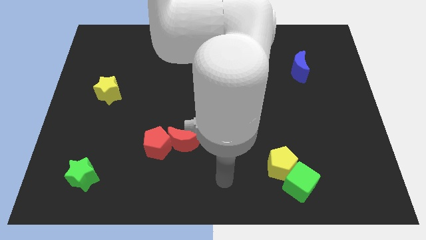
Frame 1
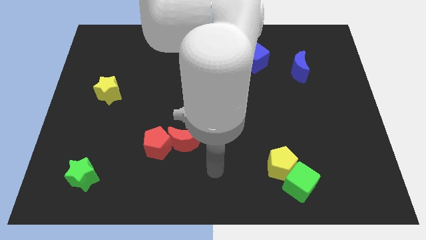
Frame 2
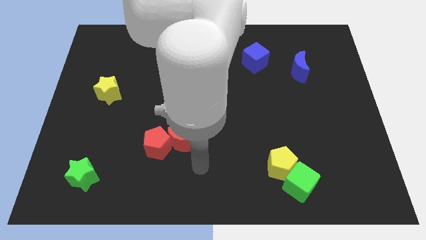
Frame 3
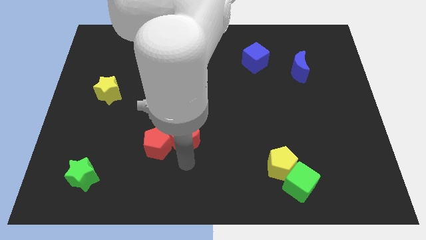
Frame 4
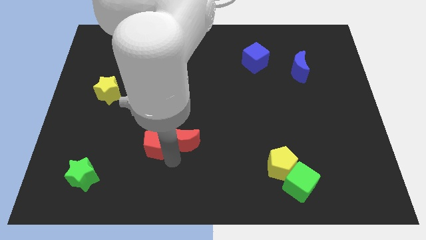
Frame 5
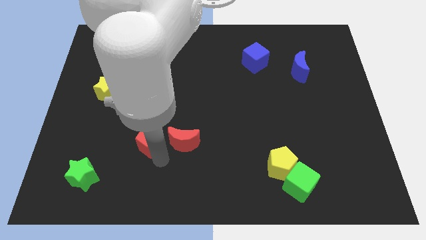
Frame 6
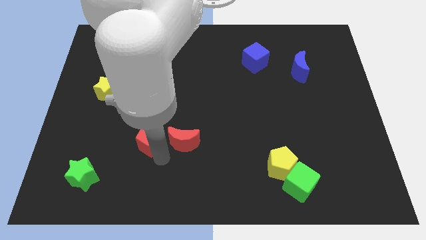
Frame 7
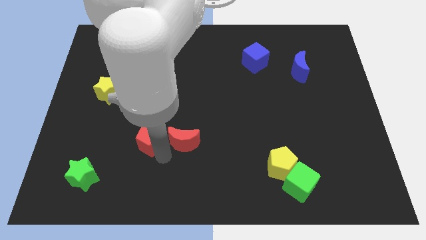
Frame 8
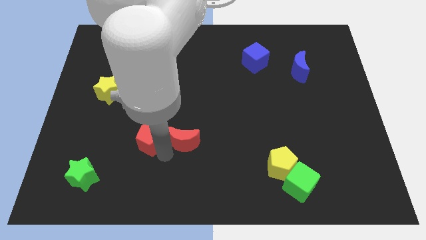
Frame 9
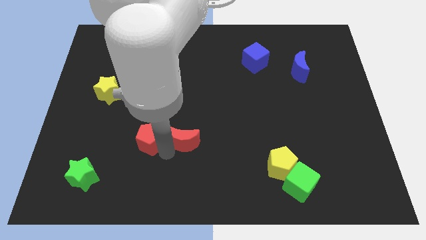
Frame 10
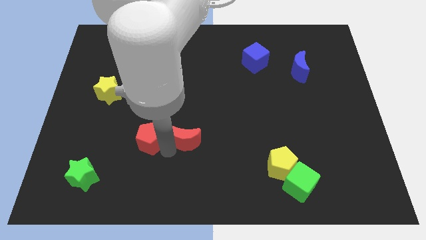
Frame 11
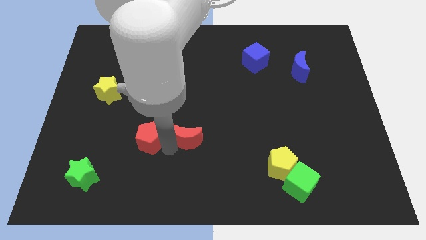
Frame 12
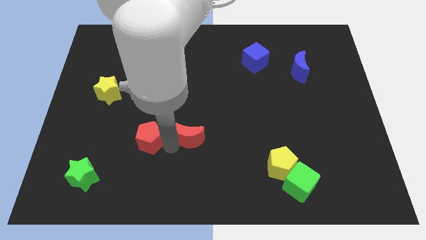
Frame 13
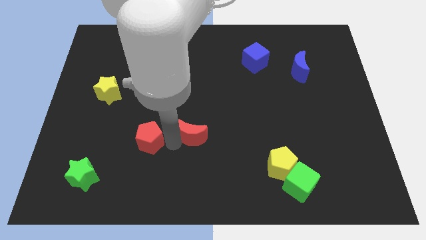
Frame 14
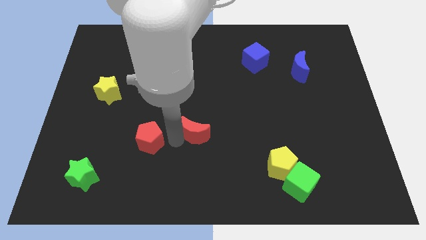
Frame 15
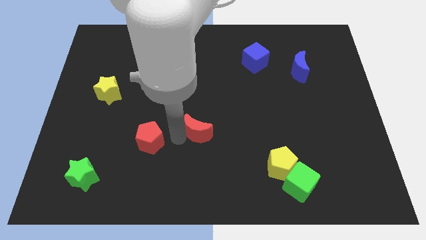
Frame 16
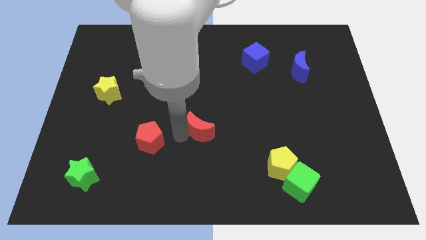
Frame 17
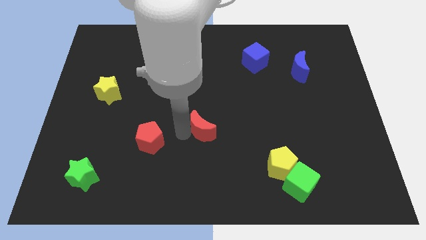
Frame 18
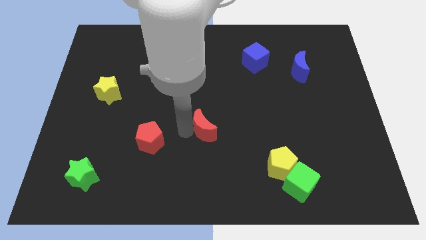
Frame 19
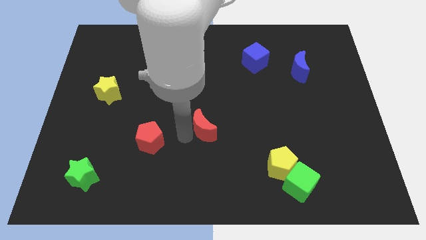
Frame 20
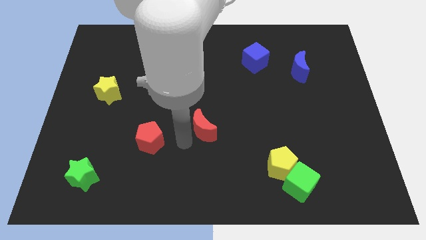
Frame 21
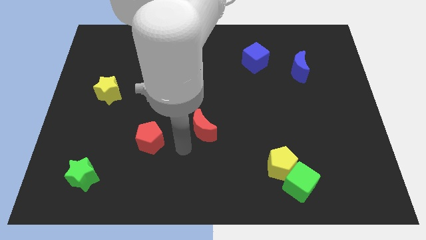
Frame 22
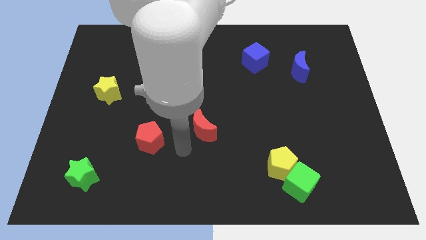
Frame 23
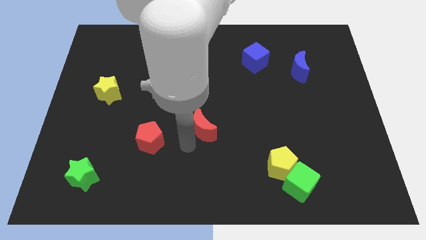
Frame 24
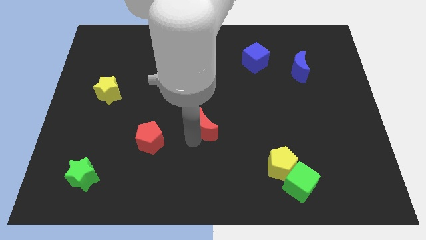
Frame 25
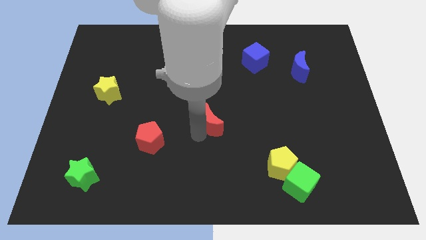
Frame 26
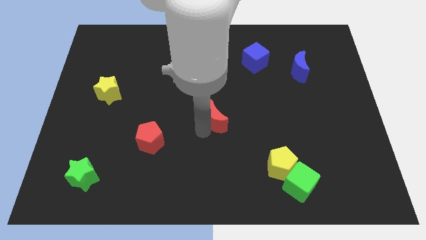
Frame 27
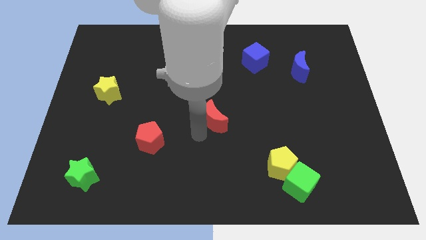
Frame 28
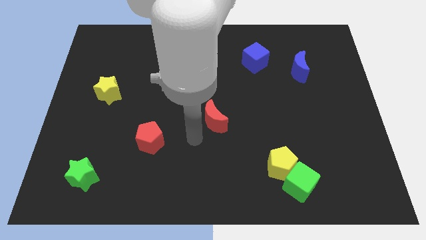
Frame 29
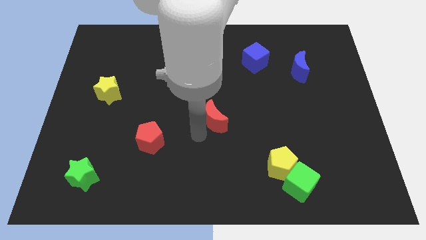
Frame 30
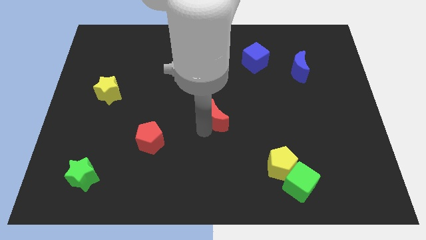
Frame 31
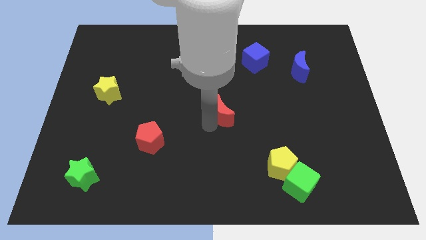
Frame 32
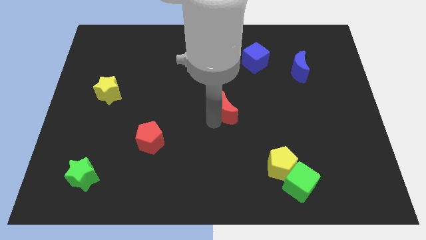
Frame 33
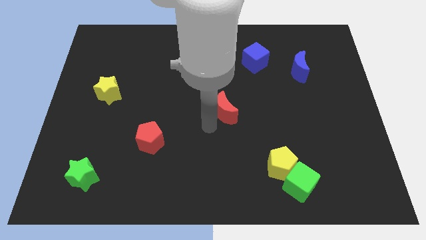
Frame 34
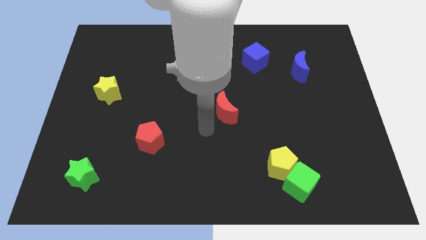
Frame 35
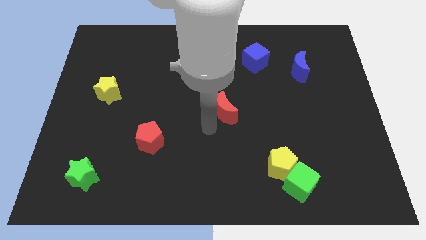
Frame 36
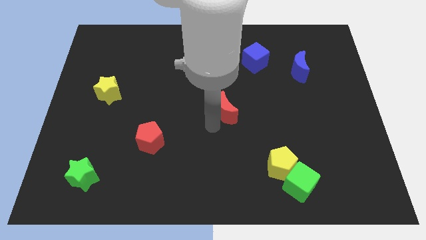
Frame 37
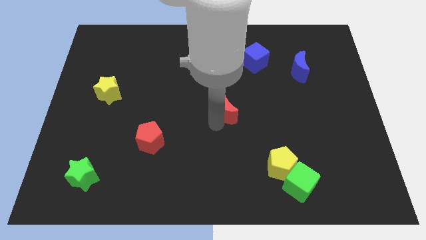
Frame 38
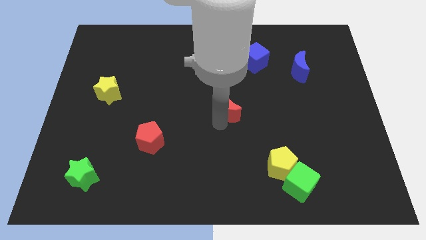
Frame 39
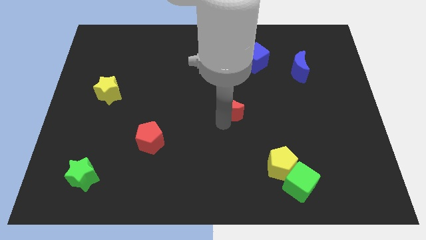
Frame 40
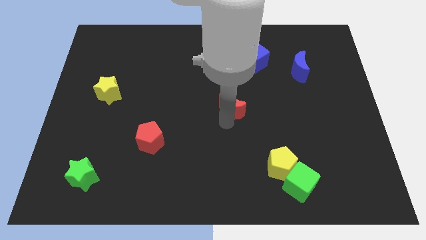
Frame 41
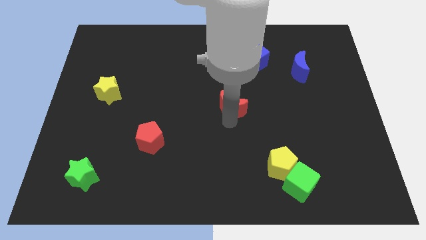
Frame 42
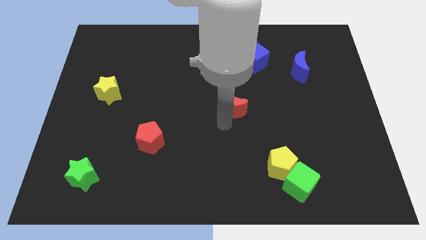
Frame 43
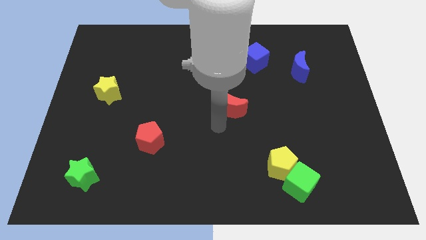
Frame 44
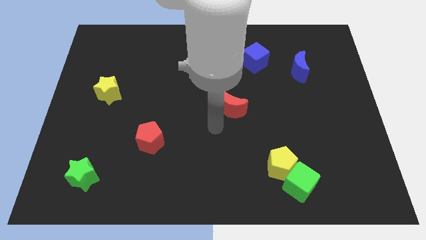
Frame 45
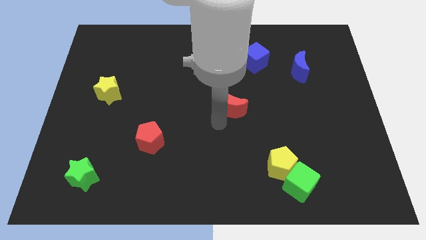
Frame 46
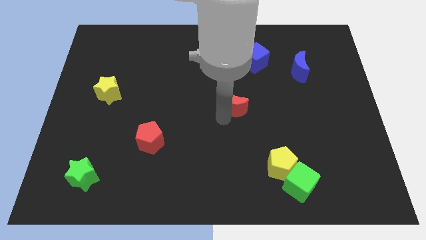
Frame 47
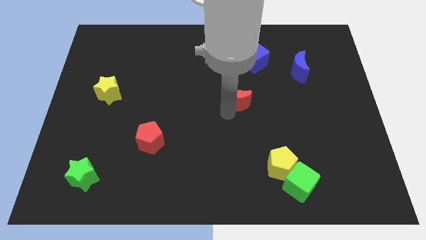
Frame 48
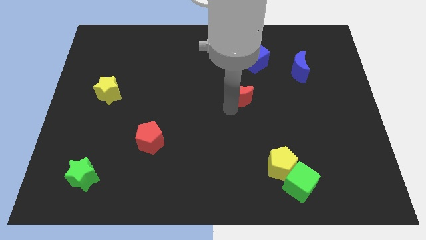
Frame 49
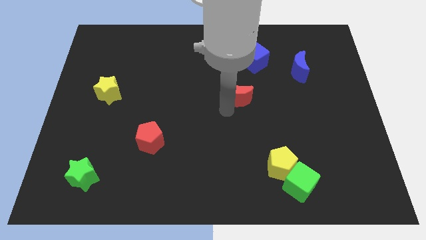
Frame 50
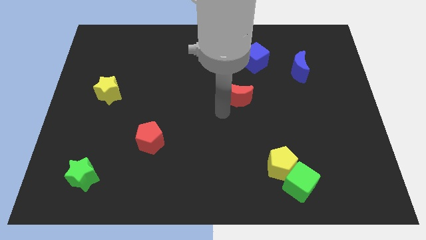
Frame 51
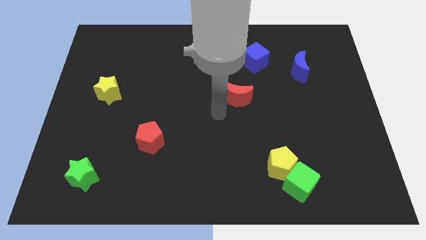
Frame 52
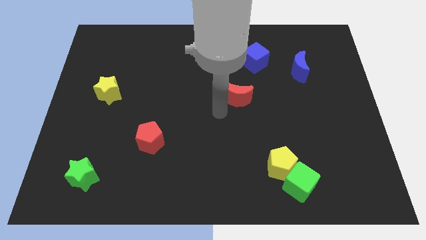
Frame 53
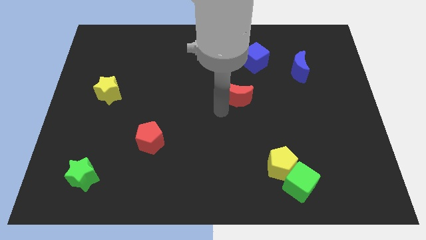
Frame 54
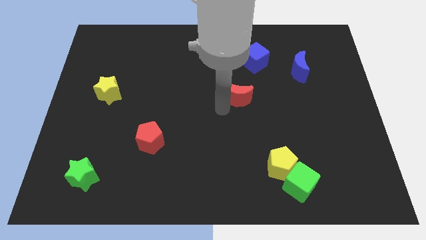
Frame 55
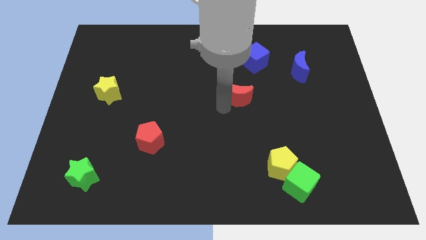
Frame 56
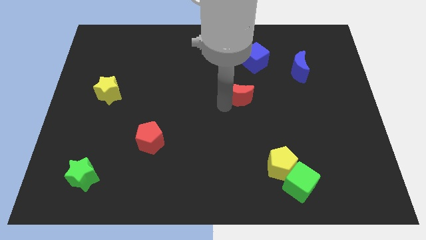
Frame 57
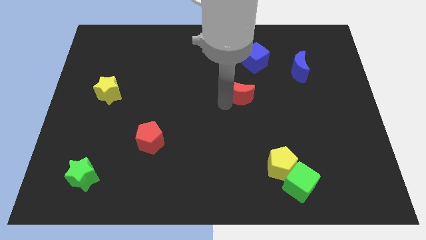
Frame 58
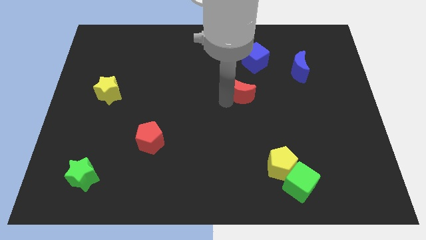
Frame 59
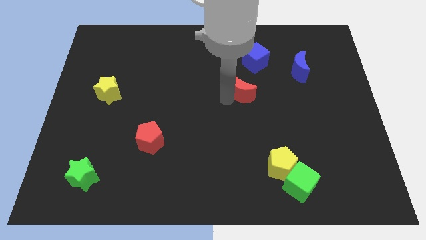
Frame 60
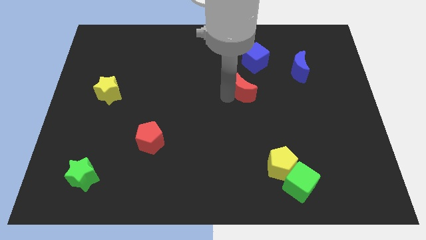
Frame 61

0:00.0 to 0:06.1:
push the red moon upwards and then to the right

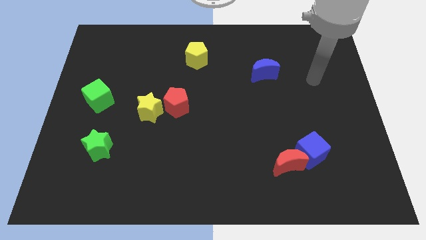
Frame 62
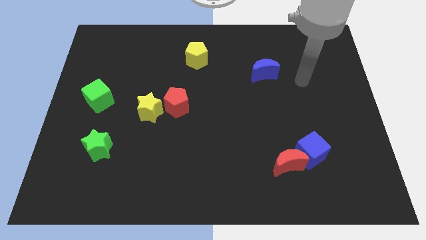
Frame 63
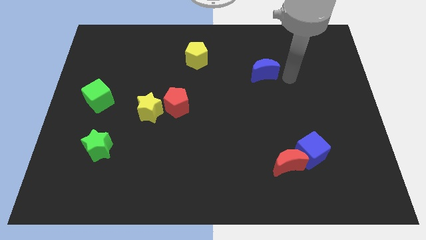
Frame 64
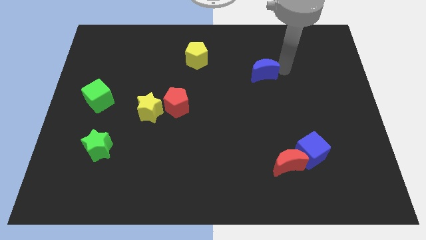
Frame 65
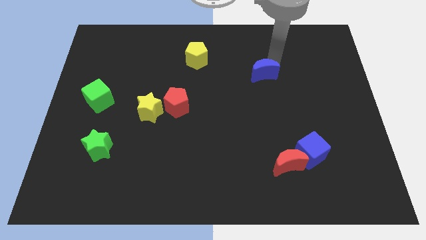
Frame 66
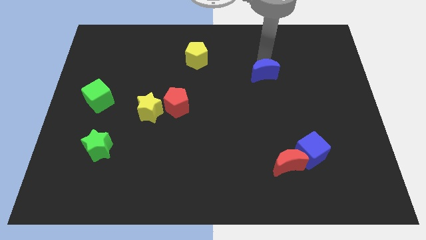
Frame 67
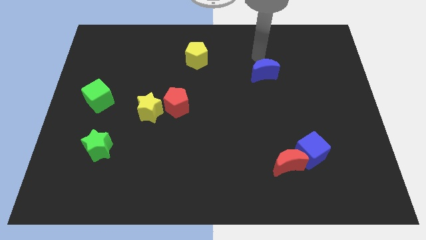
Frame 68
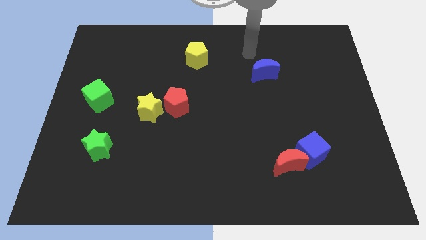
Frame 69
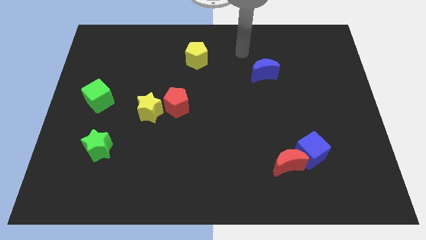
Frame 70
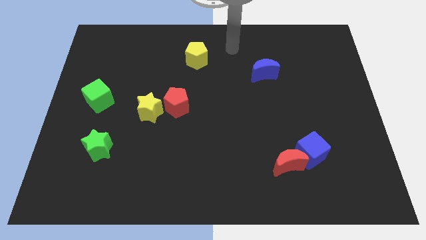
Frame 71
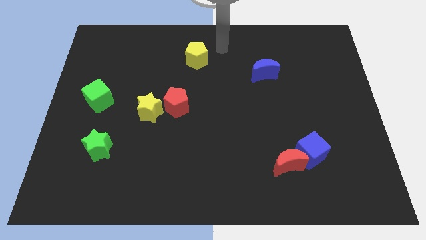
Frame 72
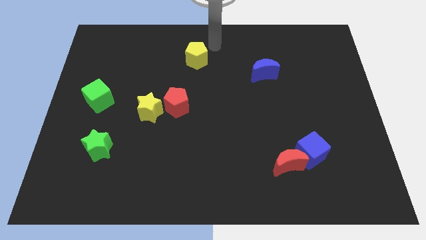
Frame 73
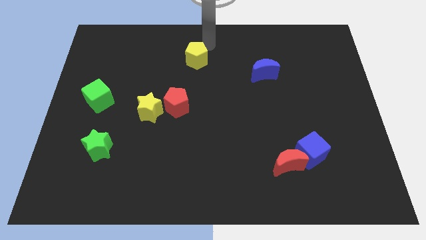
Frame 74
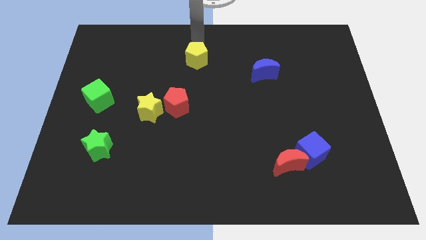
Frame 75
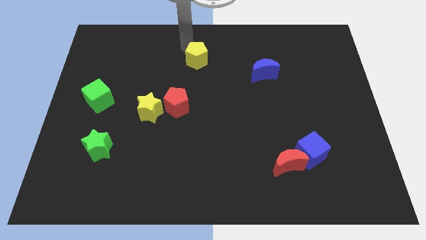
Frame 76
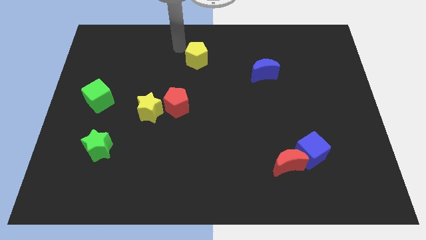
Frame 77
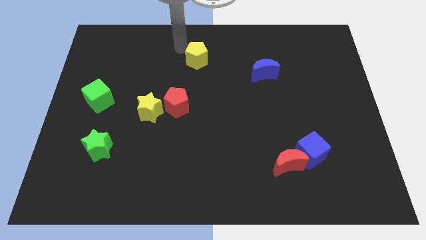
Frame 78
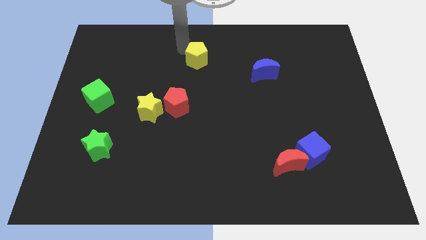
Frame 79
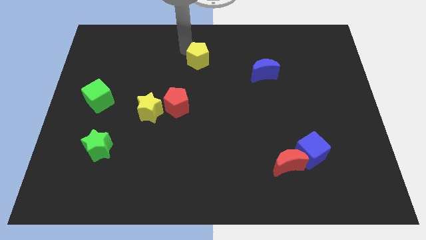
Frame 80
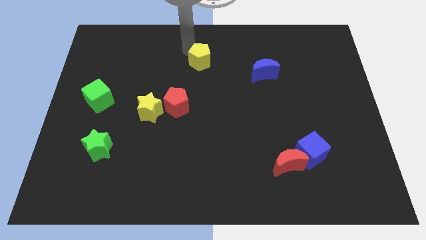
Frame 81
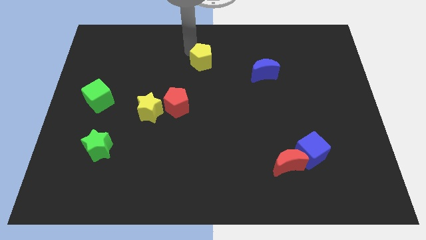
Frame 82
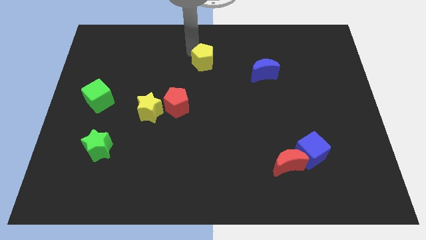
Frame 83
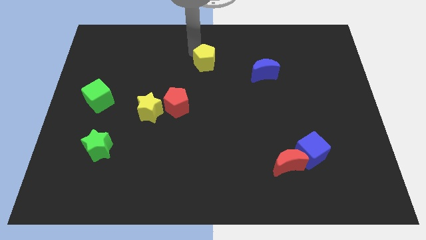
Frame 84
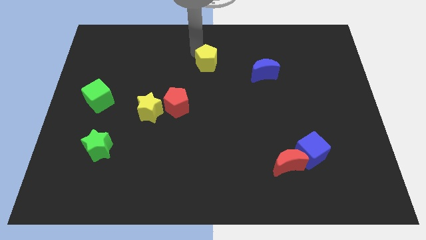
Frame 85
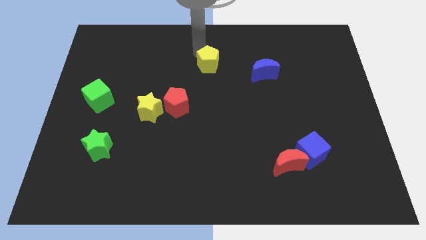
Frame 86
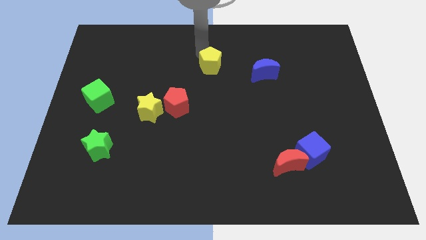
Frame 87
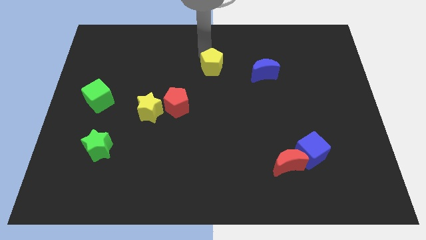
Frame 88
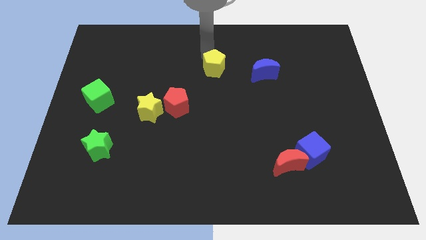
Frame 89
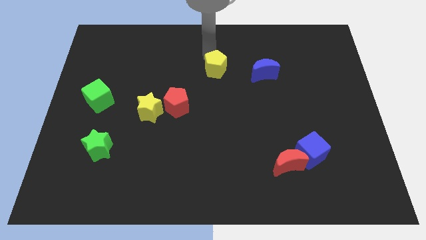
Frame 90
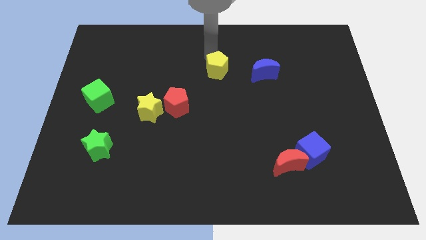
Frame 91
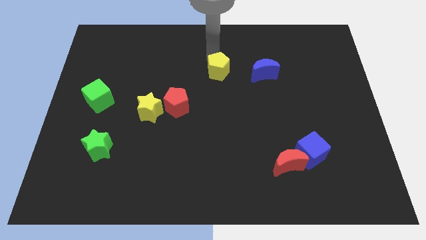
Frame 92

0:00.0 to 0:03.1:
slightly slide the yellow pentagon downwards and then right
